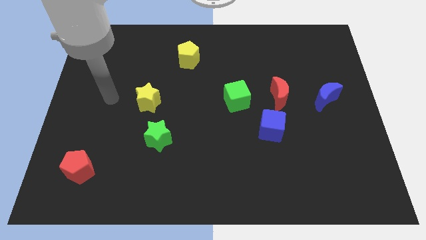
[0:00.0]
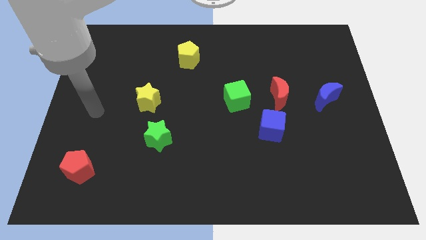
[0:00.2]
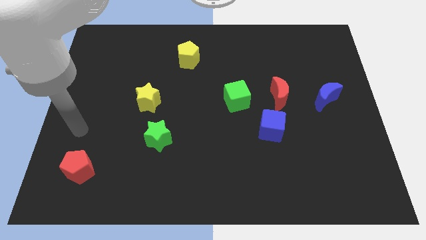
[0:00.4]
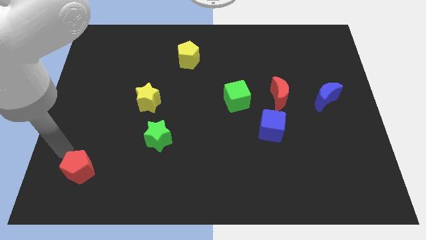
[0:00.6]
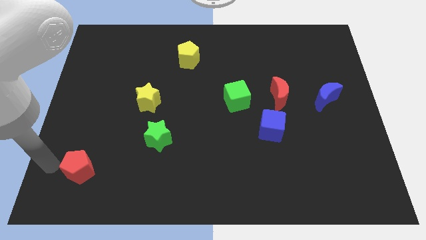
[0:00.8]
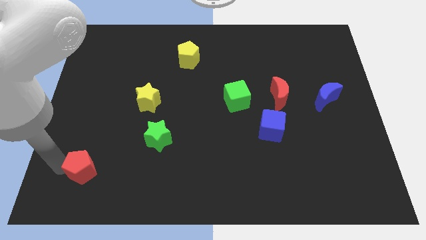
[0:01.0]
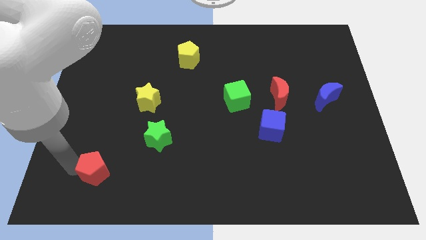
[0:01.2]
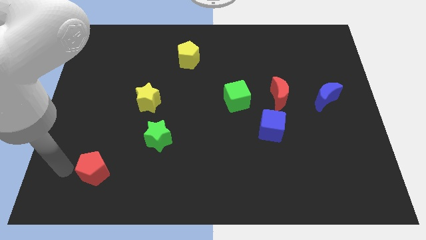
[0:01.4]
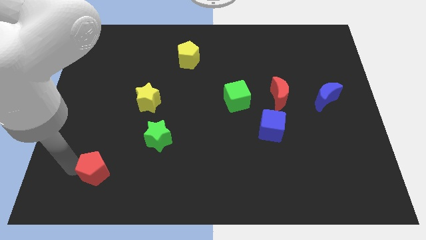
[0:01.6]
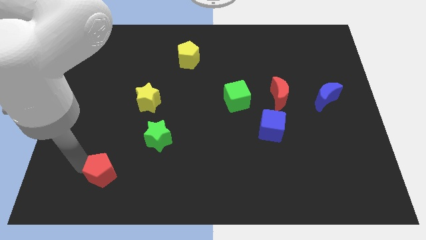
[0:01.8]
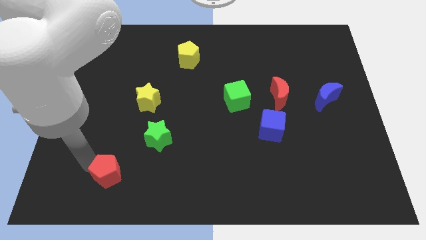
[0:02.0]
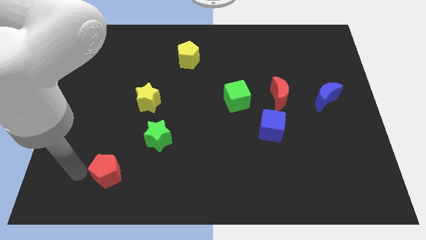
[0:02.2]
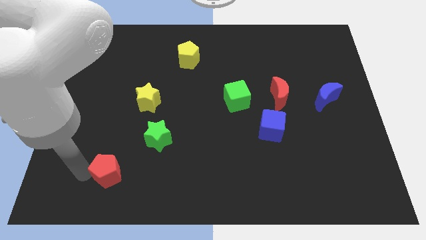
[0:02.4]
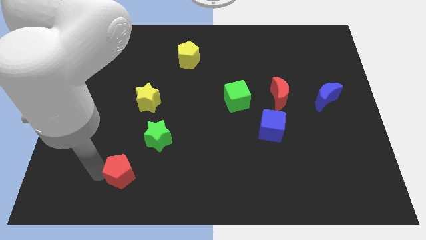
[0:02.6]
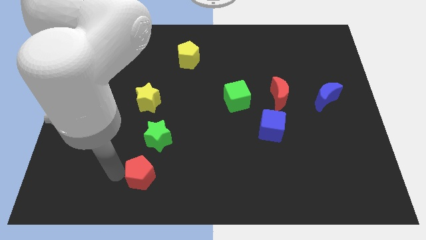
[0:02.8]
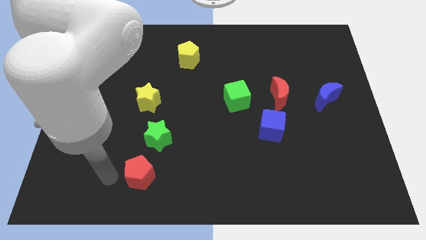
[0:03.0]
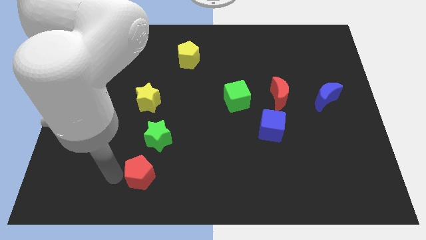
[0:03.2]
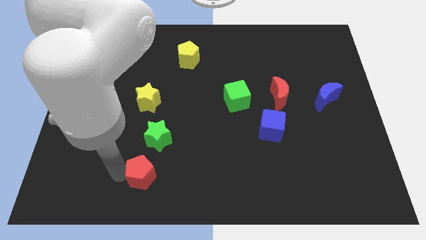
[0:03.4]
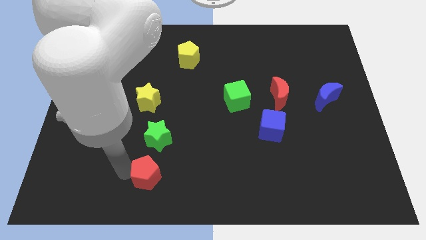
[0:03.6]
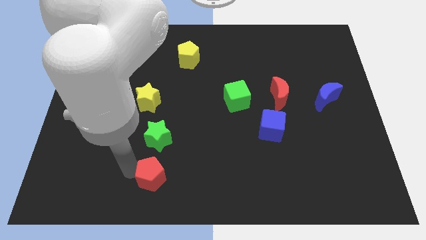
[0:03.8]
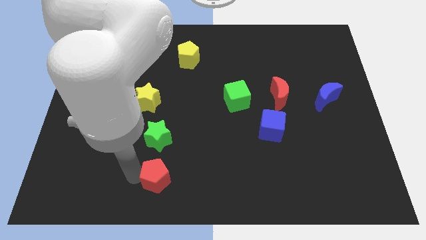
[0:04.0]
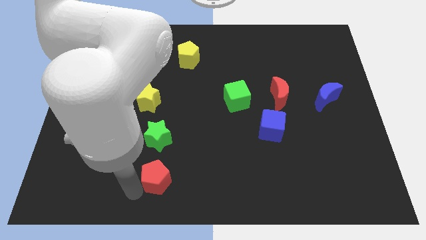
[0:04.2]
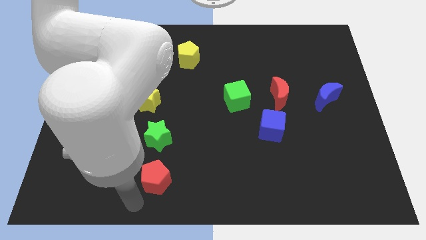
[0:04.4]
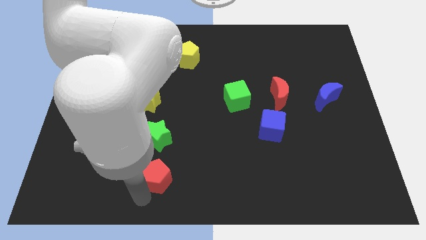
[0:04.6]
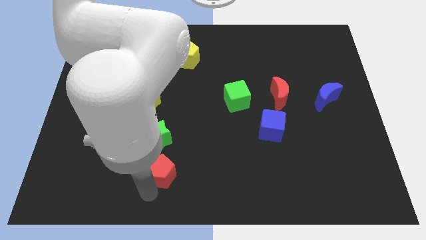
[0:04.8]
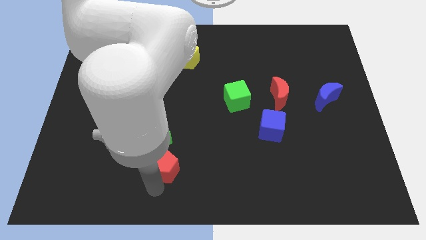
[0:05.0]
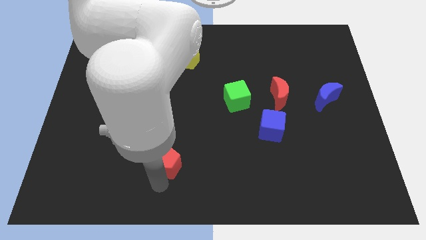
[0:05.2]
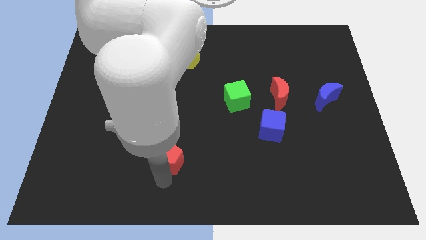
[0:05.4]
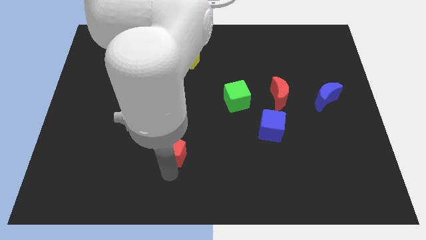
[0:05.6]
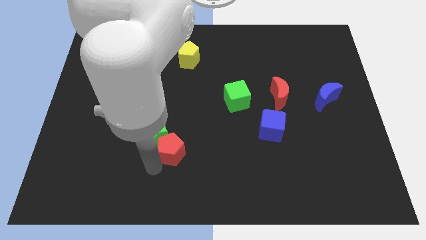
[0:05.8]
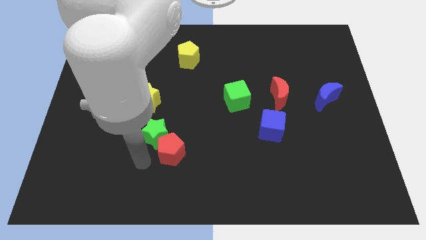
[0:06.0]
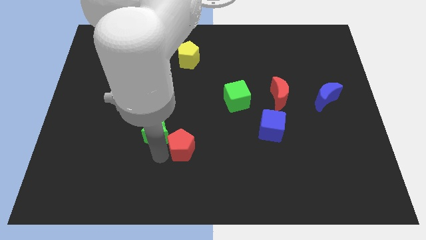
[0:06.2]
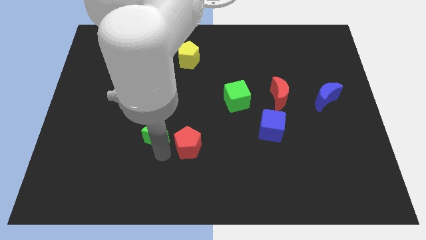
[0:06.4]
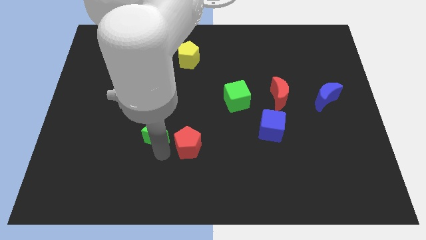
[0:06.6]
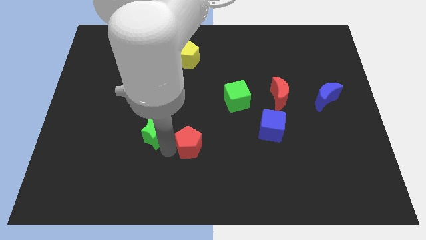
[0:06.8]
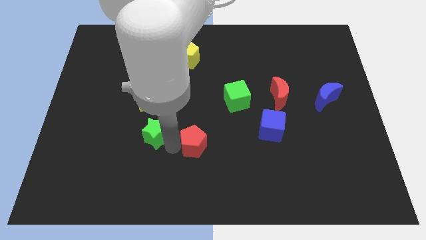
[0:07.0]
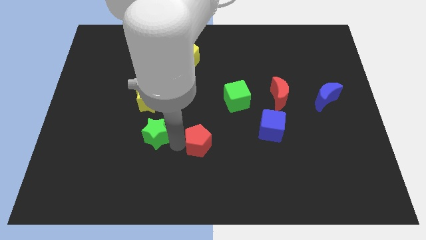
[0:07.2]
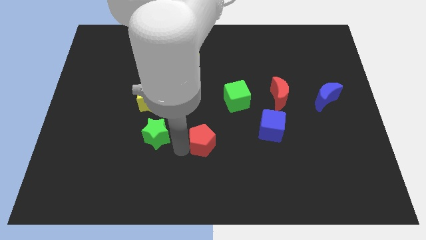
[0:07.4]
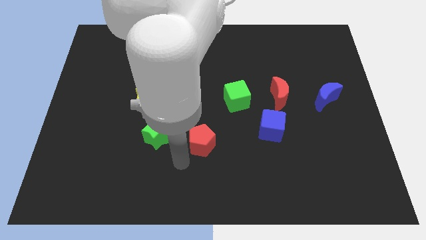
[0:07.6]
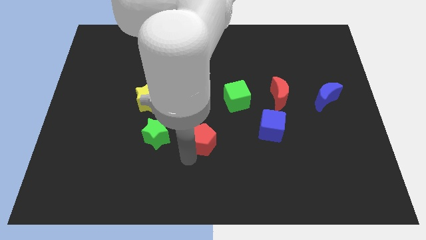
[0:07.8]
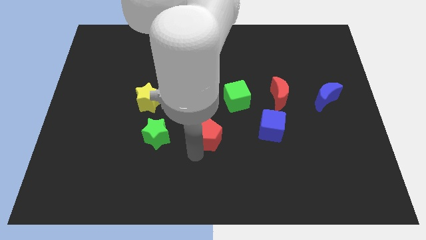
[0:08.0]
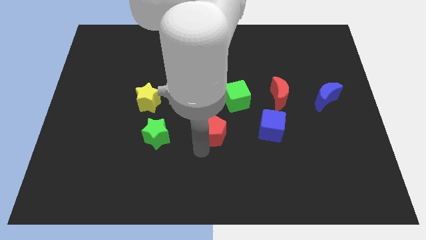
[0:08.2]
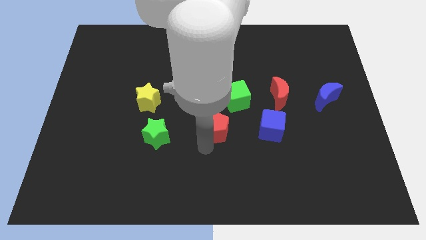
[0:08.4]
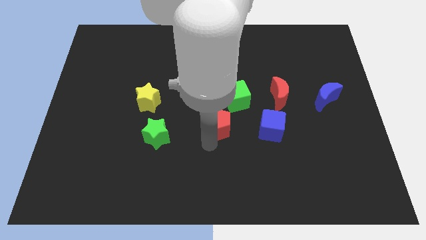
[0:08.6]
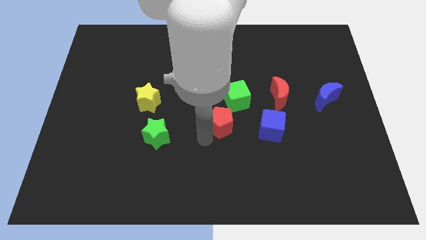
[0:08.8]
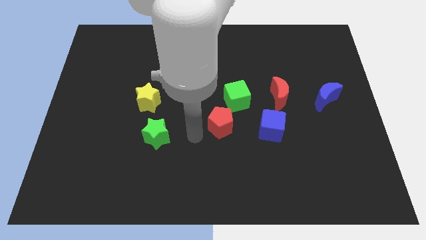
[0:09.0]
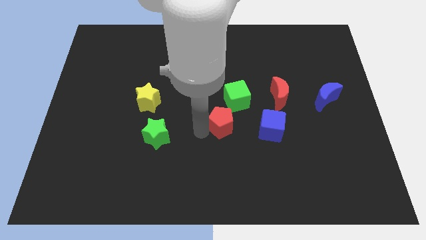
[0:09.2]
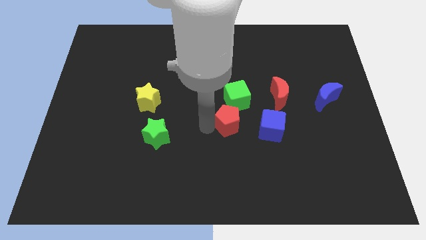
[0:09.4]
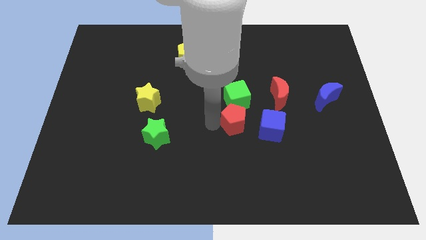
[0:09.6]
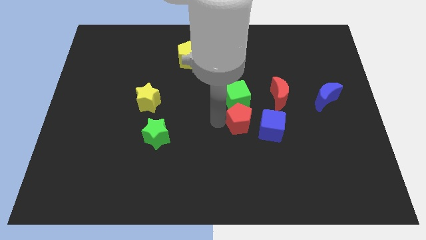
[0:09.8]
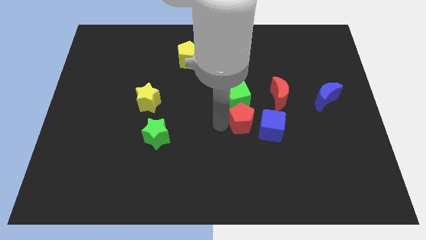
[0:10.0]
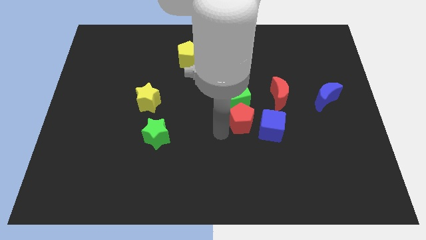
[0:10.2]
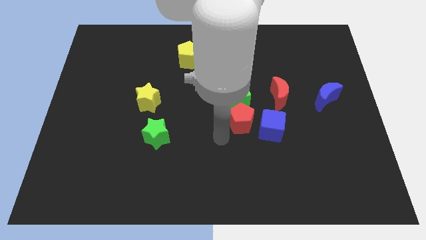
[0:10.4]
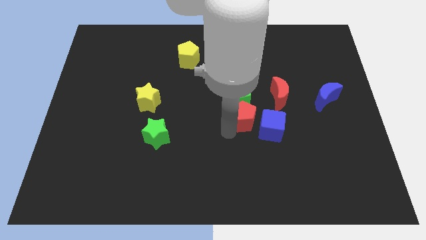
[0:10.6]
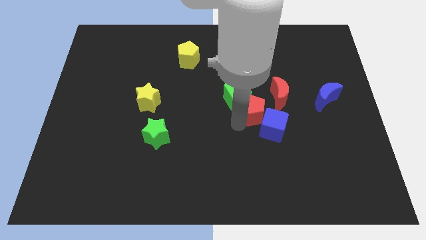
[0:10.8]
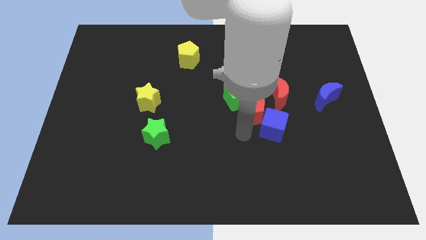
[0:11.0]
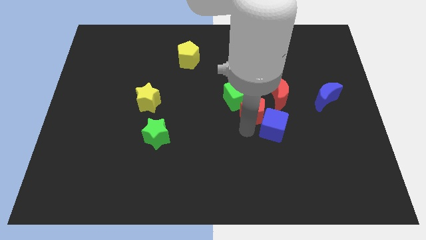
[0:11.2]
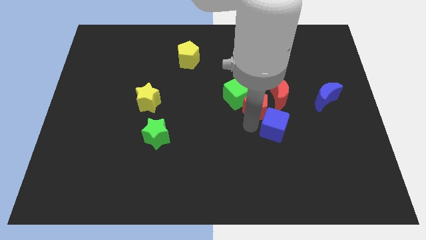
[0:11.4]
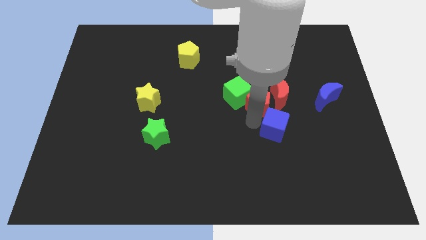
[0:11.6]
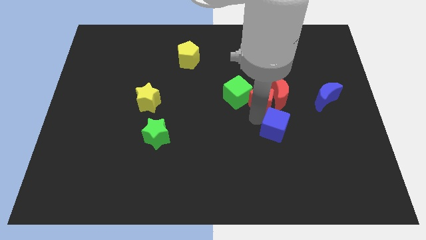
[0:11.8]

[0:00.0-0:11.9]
slide the red pentagon to the top left of the red moon

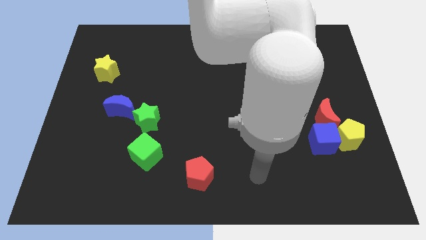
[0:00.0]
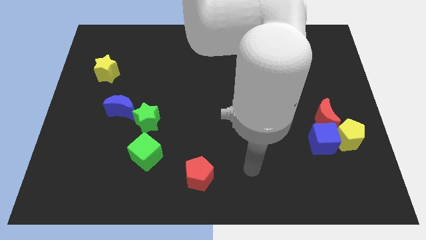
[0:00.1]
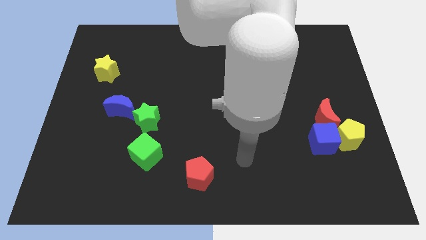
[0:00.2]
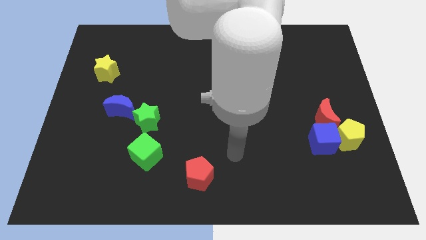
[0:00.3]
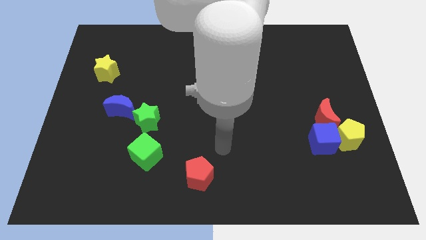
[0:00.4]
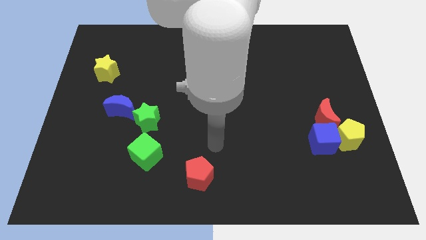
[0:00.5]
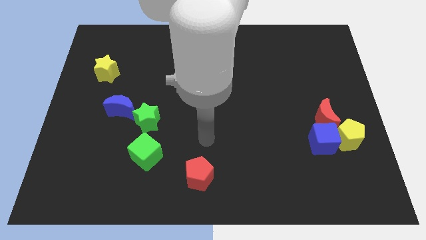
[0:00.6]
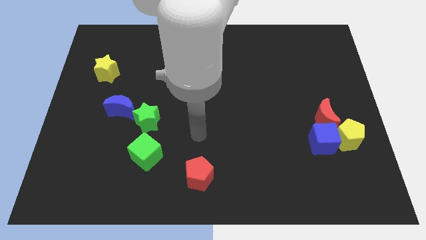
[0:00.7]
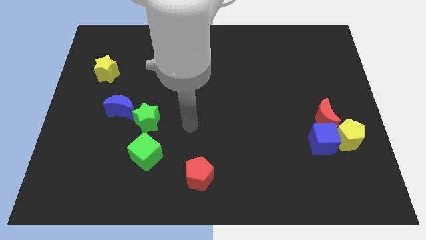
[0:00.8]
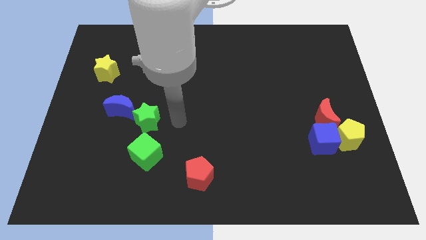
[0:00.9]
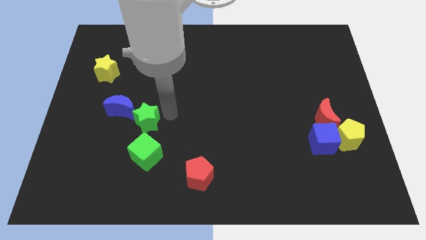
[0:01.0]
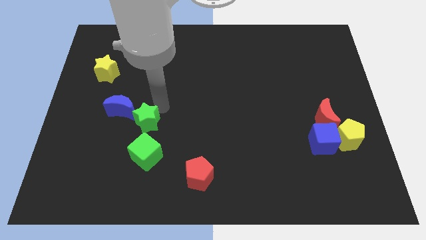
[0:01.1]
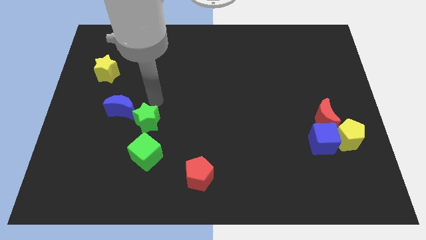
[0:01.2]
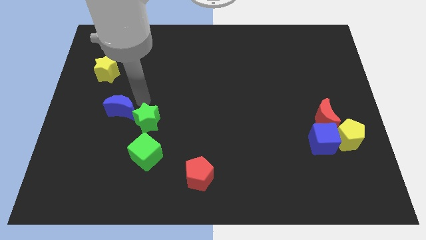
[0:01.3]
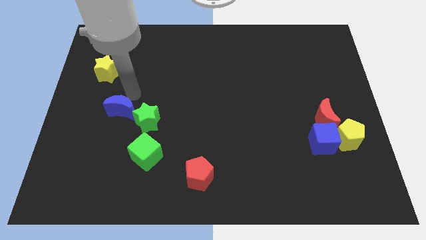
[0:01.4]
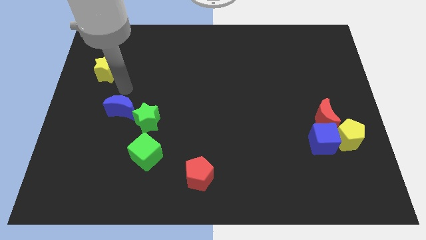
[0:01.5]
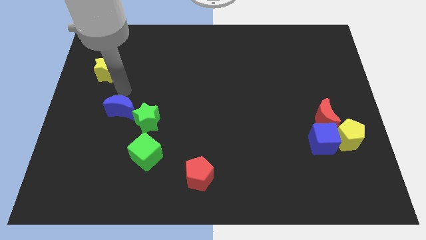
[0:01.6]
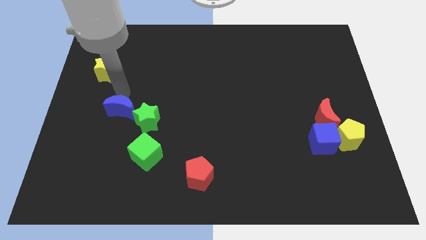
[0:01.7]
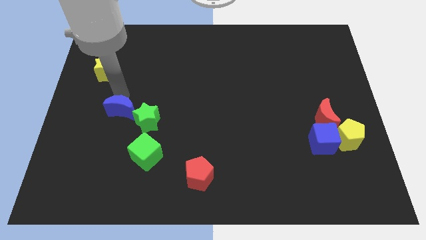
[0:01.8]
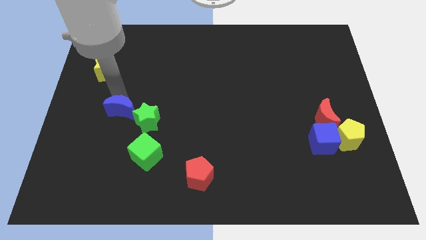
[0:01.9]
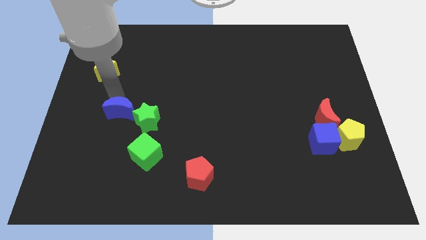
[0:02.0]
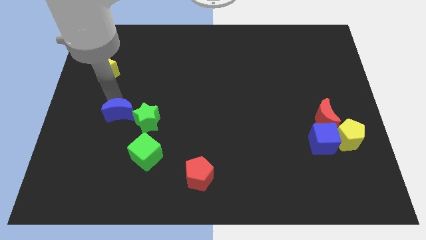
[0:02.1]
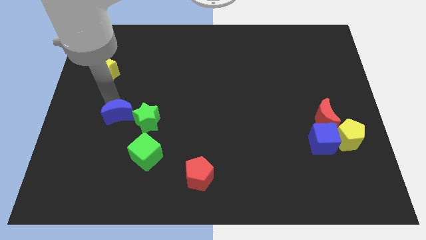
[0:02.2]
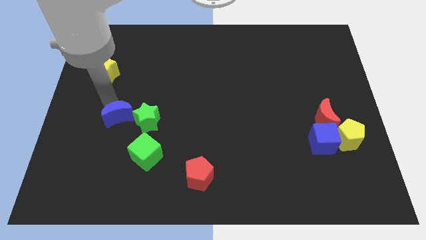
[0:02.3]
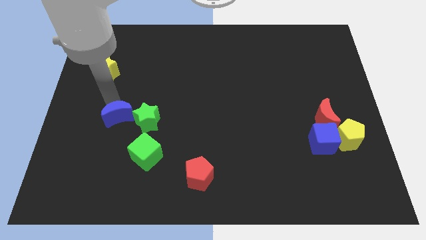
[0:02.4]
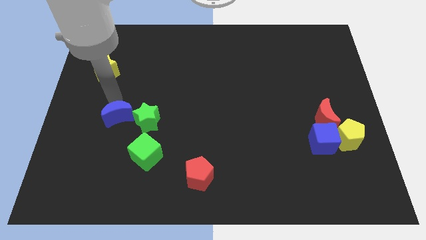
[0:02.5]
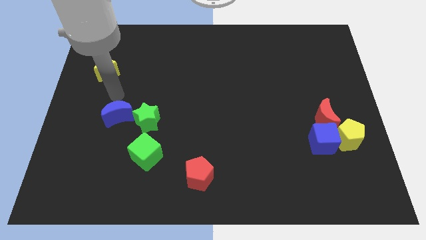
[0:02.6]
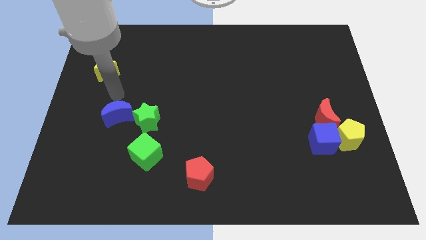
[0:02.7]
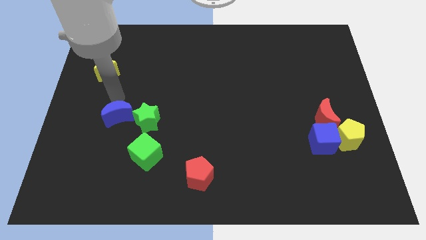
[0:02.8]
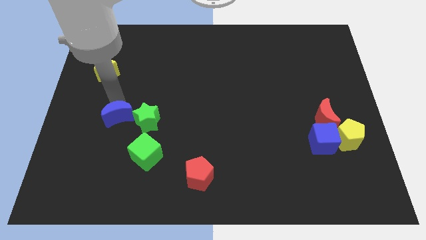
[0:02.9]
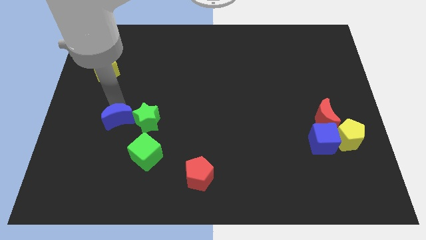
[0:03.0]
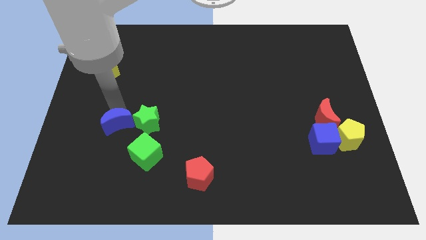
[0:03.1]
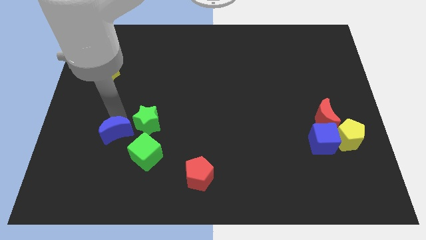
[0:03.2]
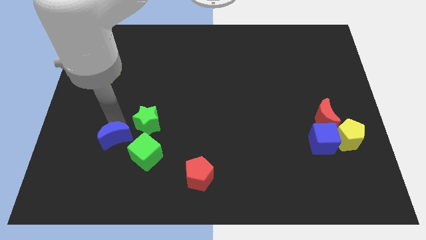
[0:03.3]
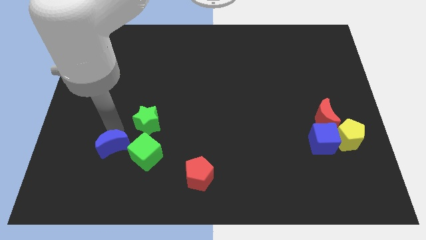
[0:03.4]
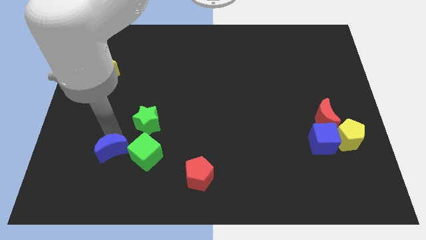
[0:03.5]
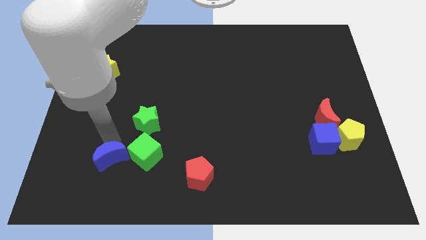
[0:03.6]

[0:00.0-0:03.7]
move the blue moon to the bottom left side of the green cube
